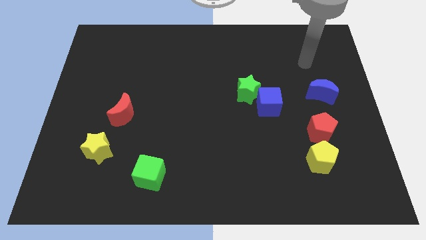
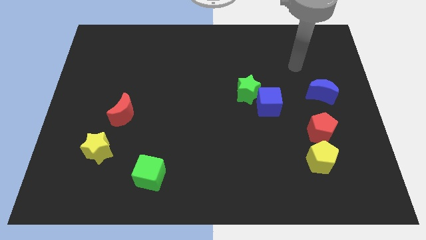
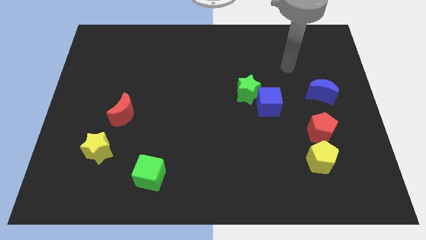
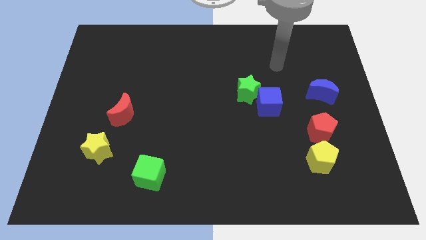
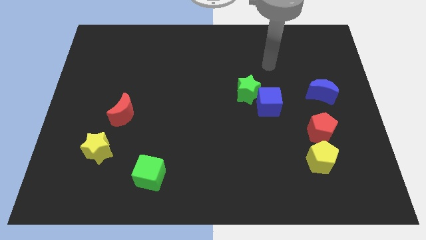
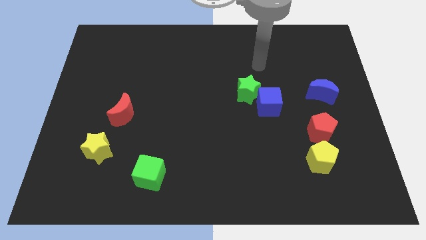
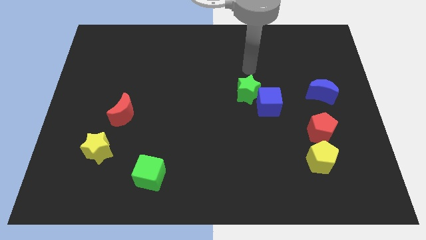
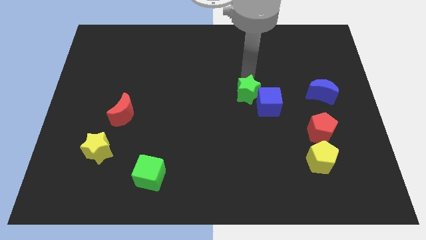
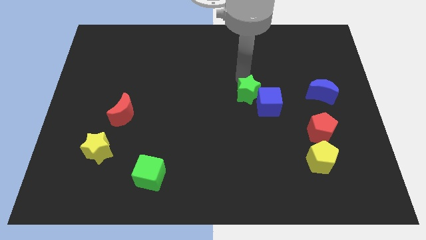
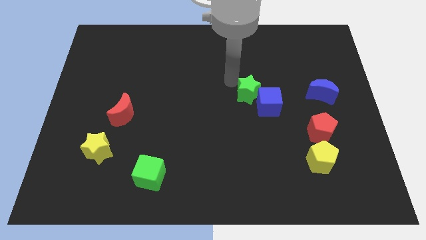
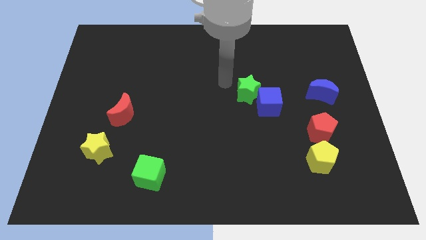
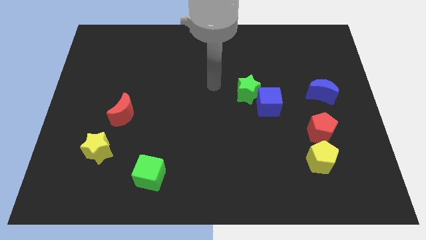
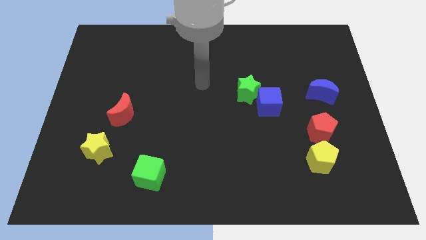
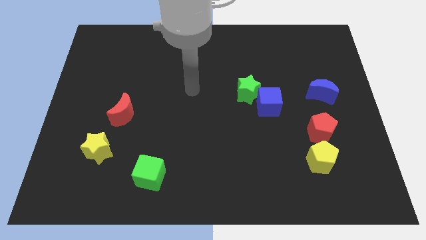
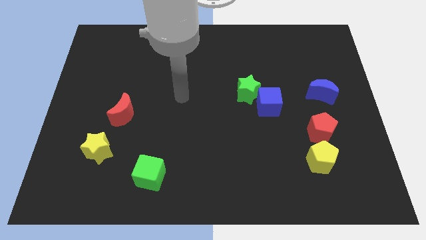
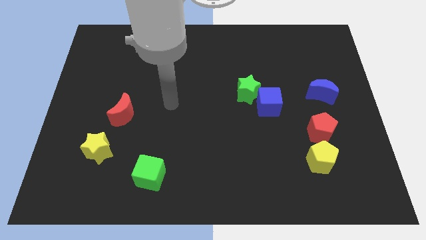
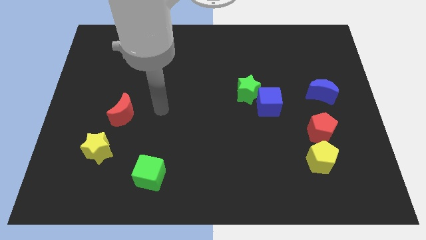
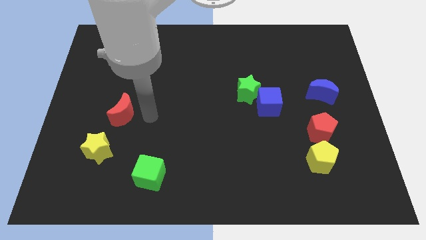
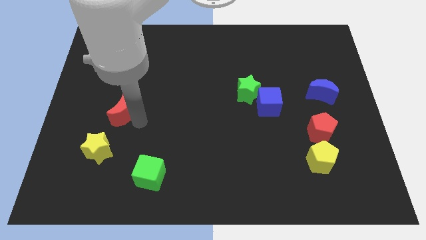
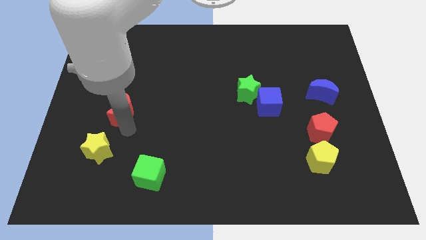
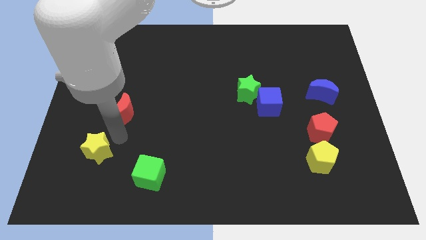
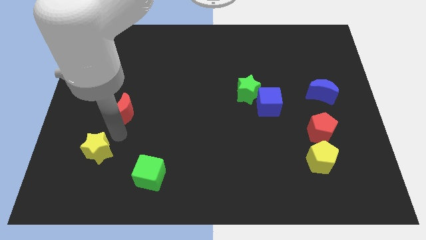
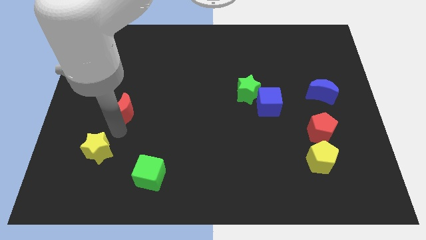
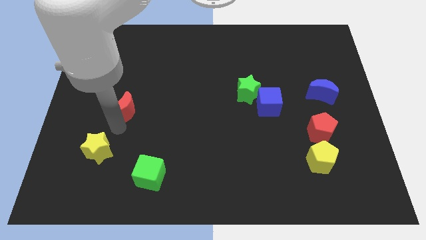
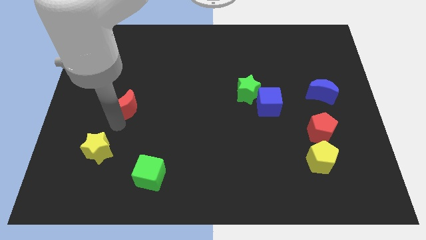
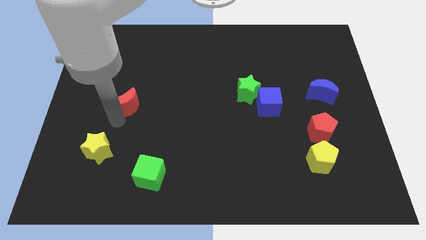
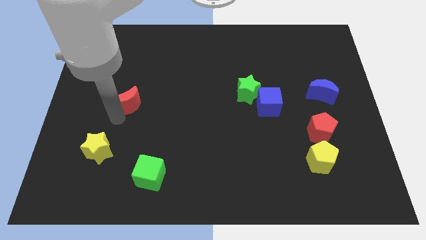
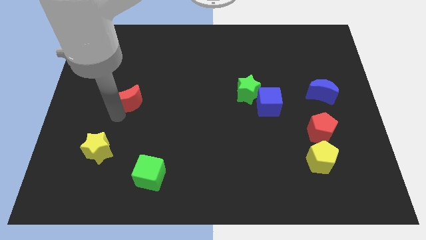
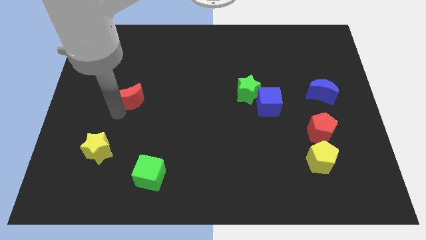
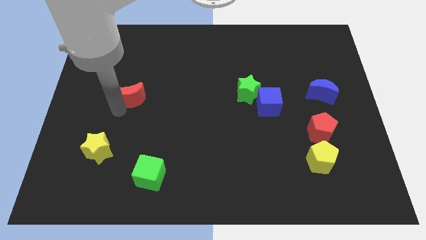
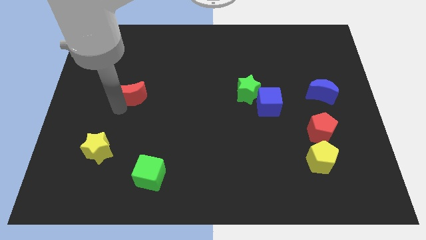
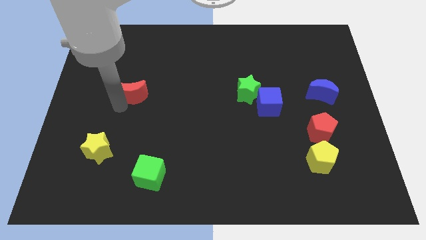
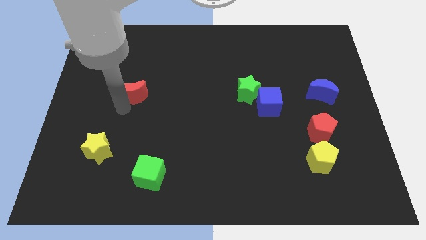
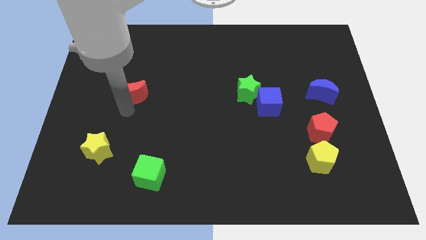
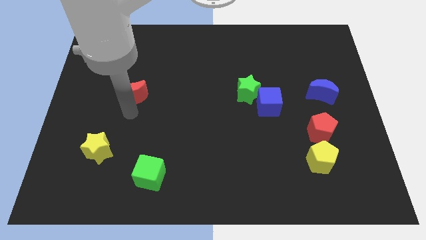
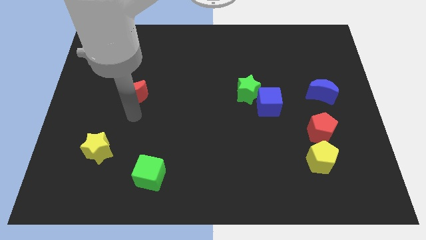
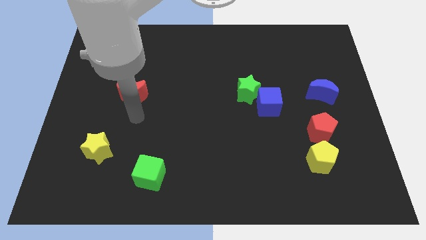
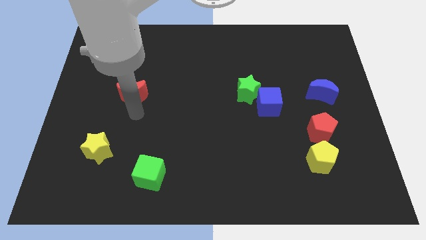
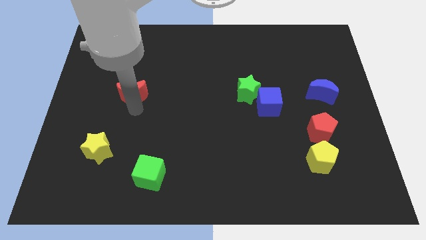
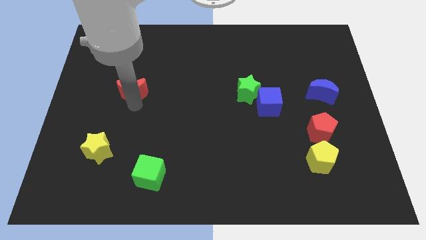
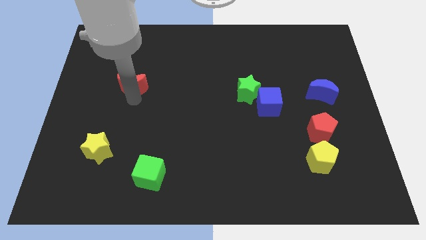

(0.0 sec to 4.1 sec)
move the red moon upwards slightly

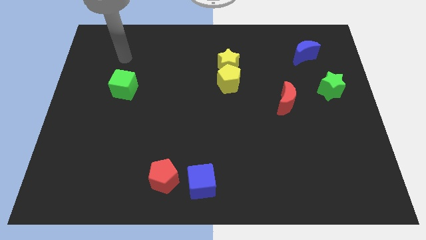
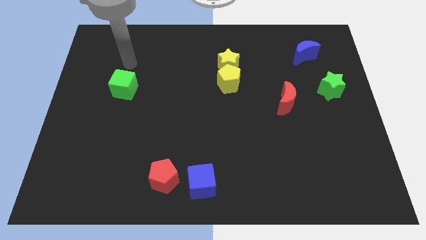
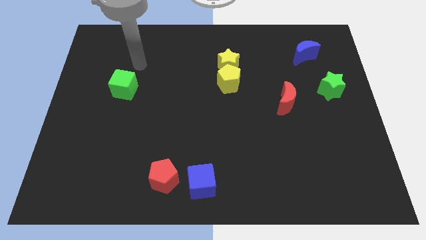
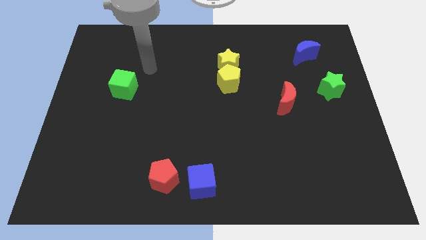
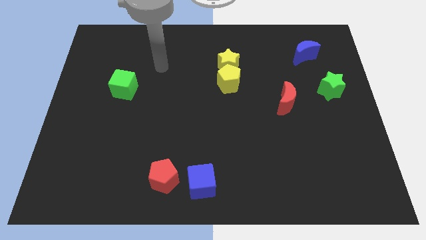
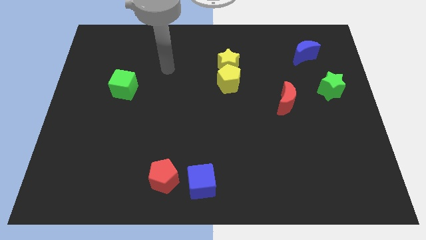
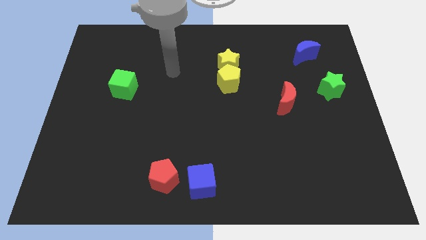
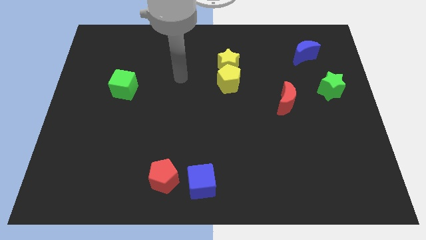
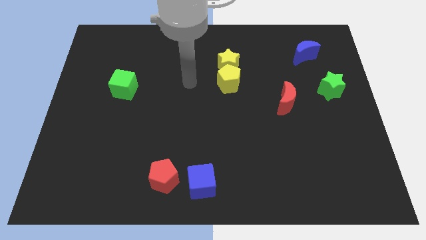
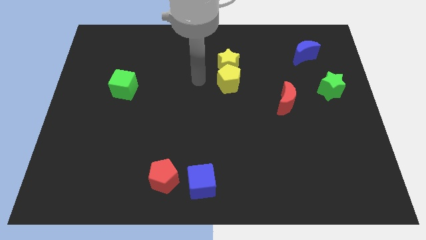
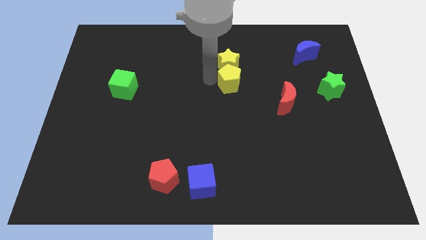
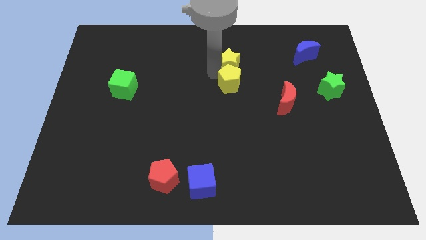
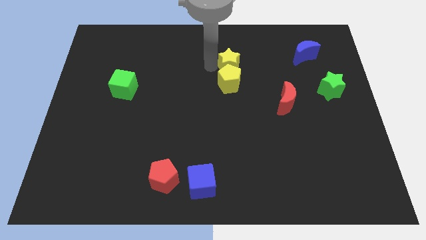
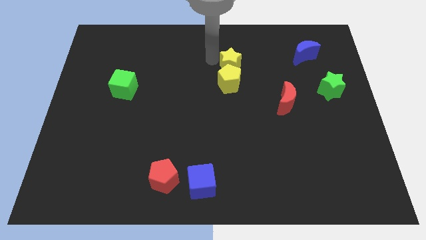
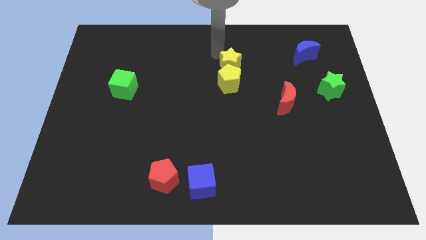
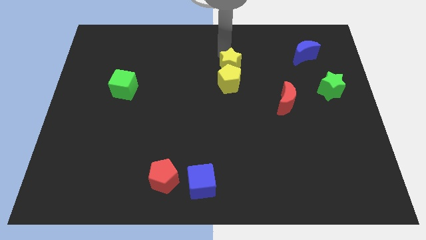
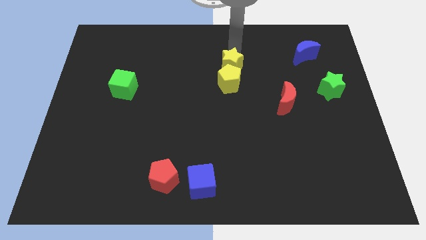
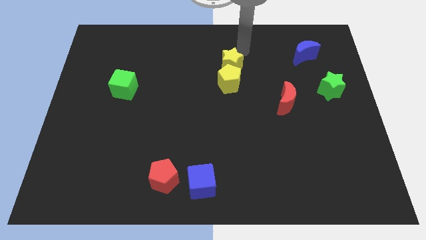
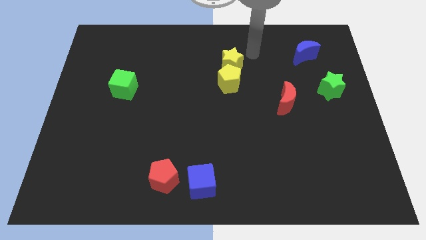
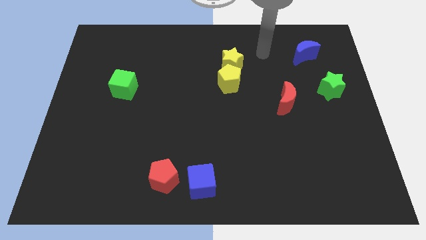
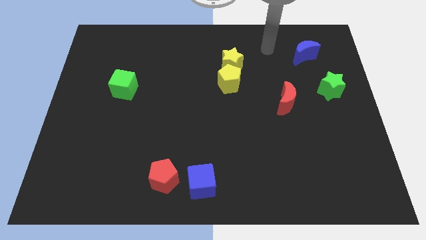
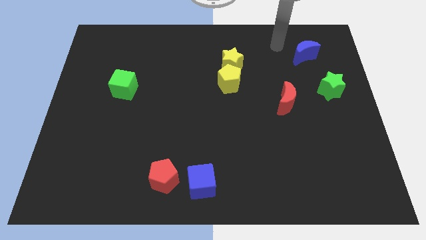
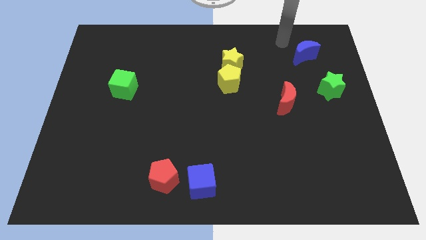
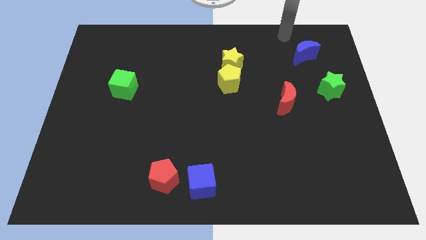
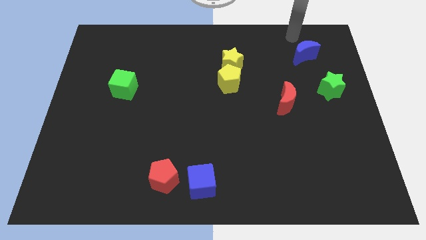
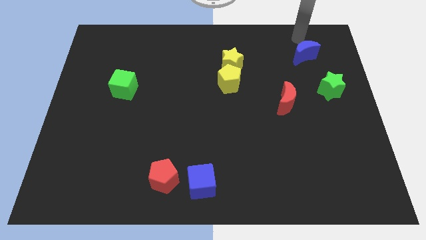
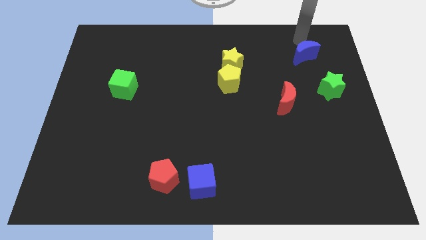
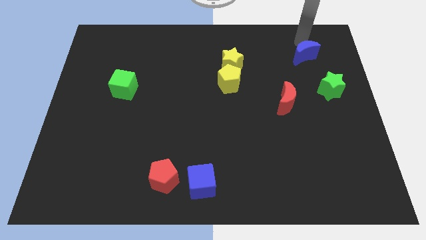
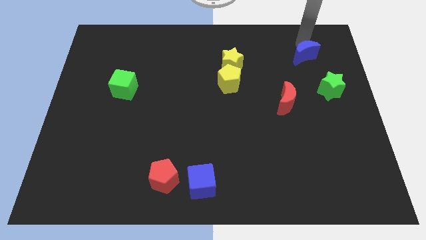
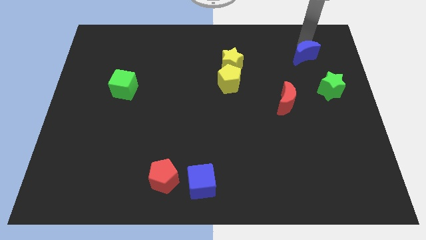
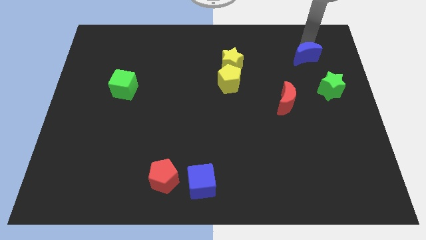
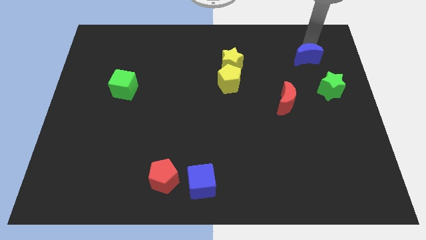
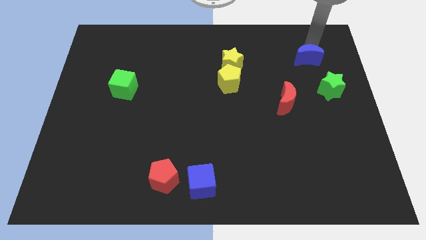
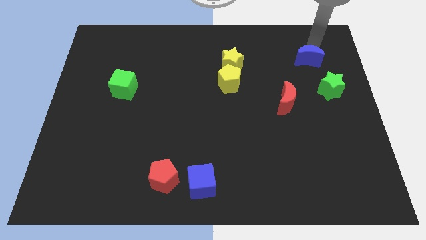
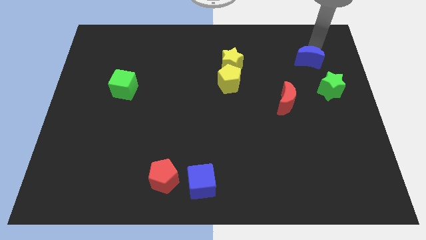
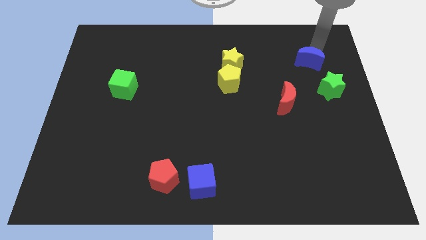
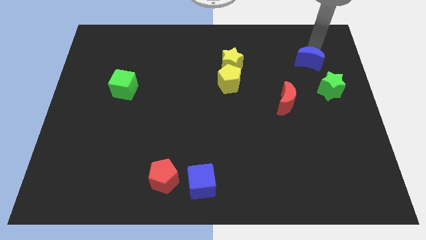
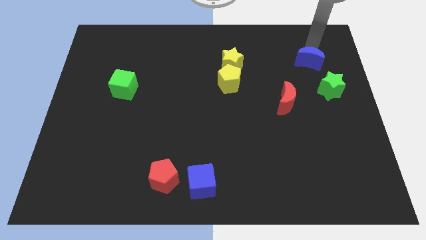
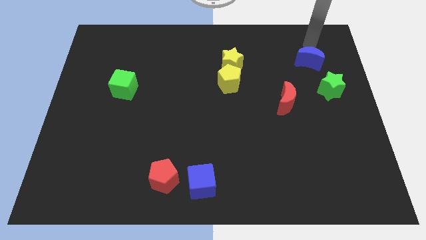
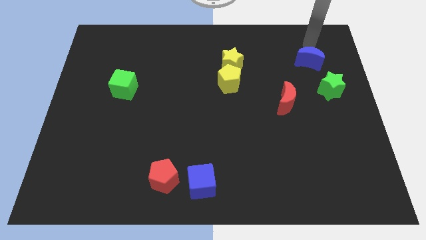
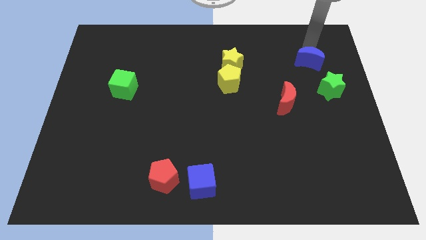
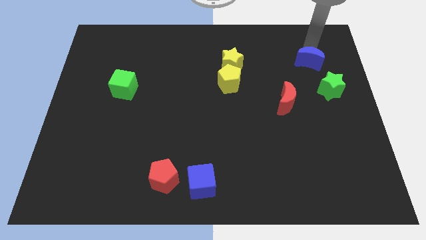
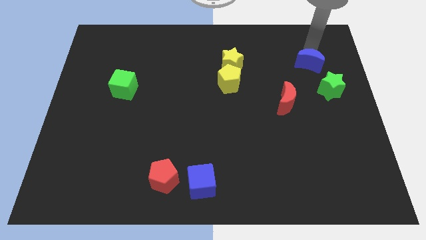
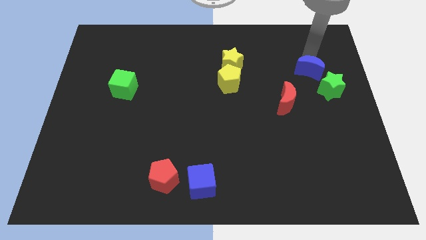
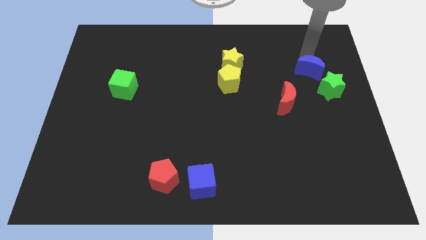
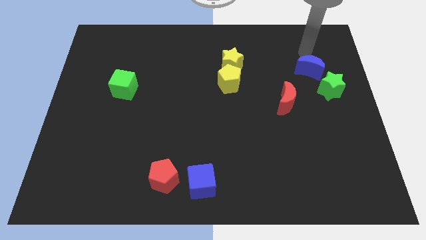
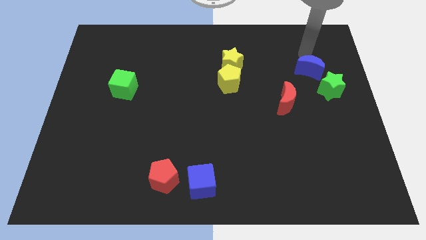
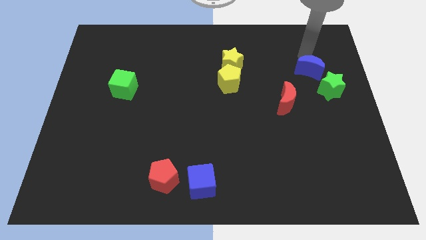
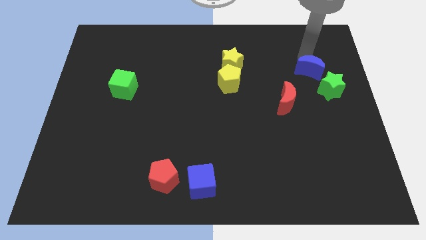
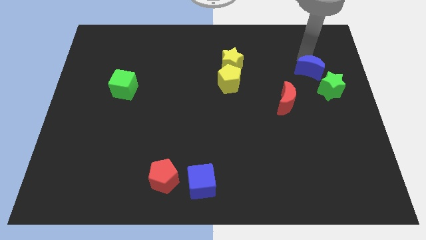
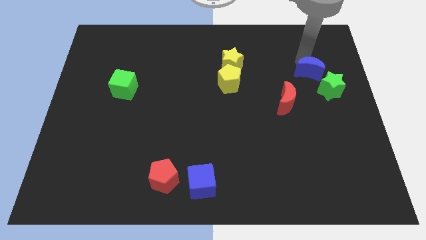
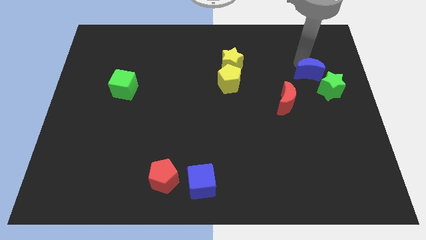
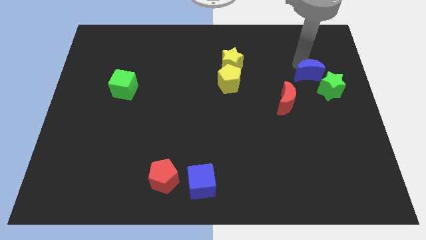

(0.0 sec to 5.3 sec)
slightly move the blue moon downwards
